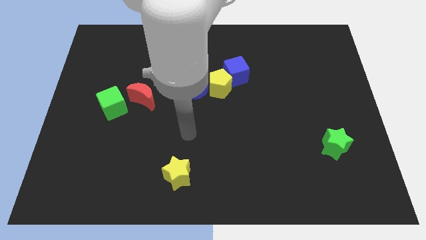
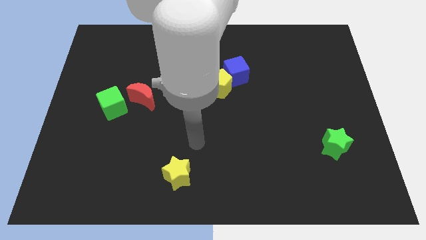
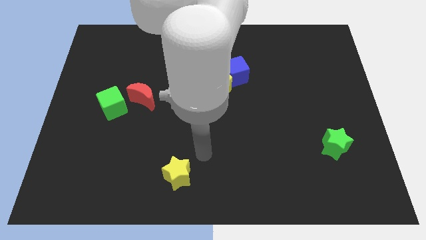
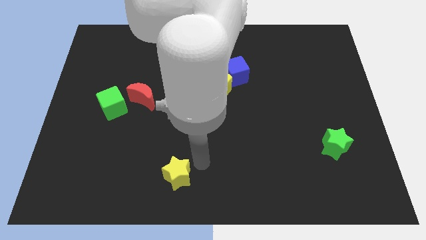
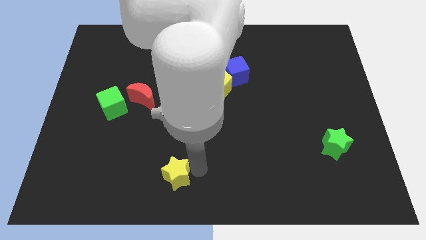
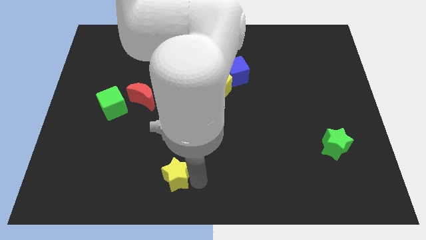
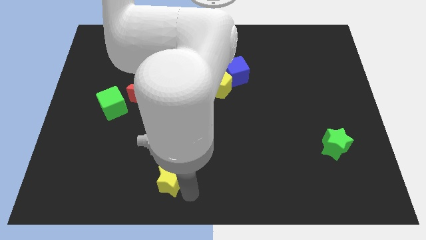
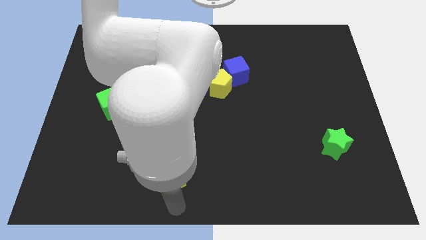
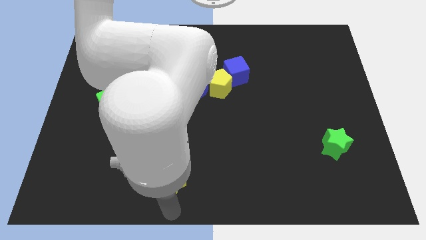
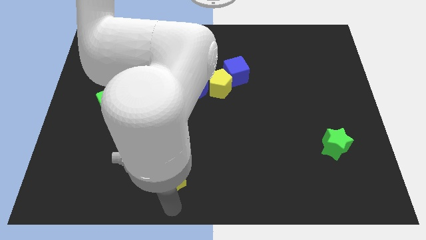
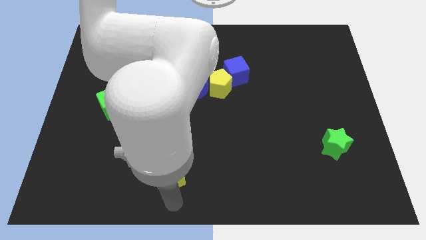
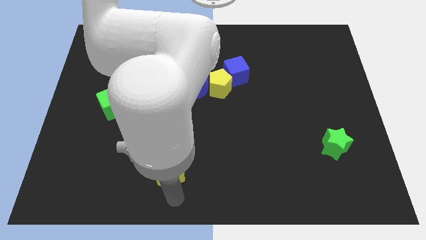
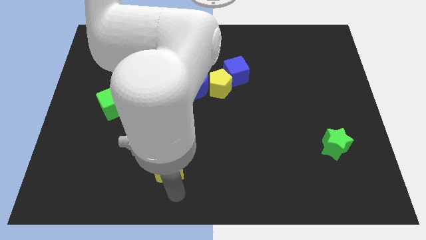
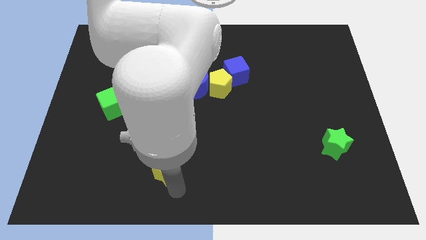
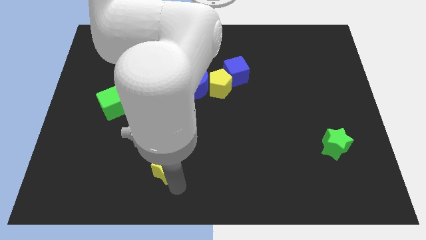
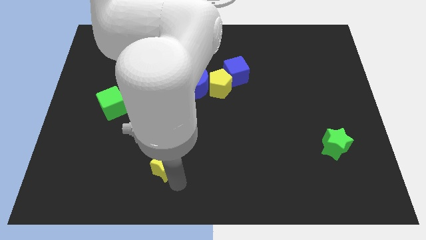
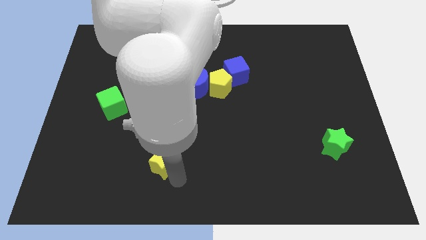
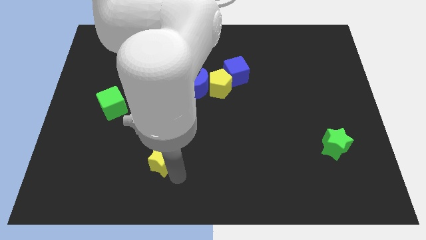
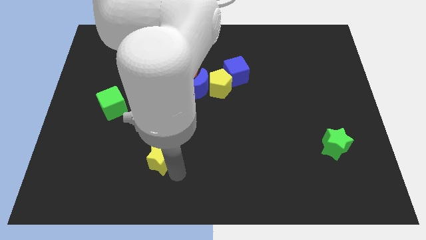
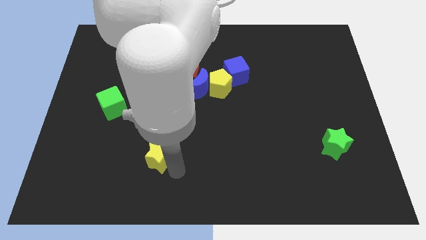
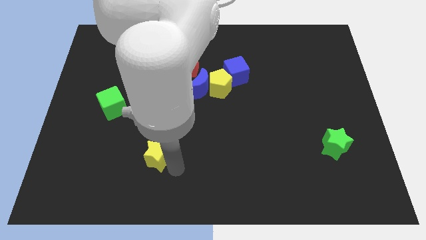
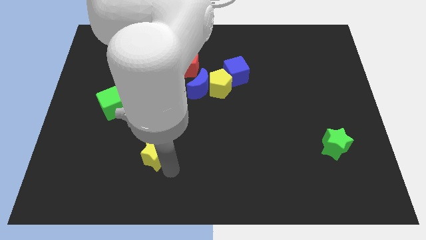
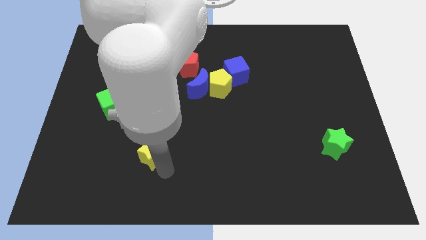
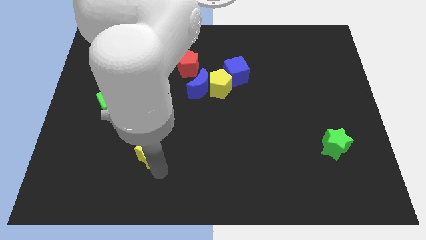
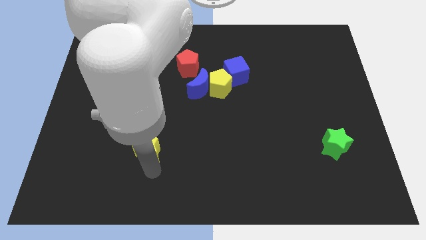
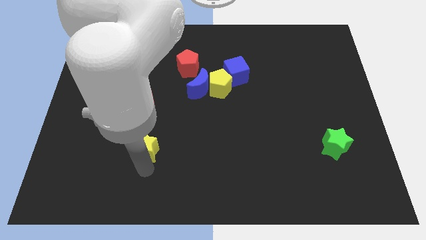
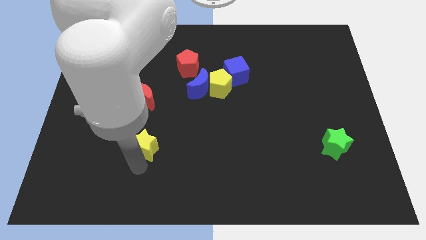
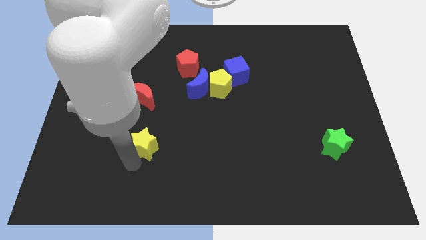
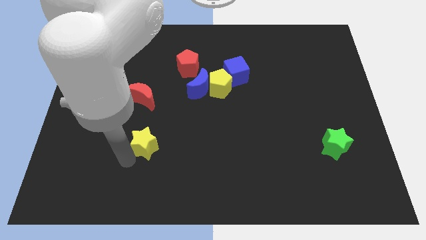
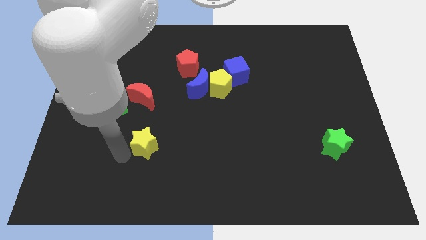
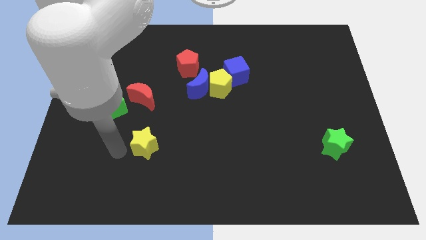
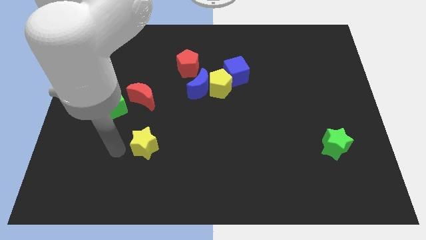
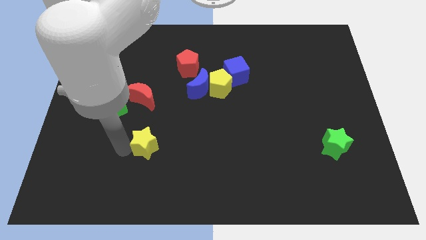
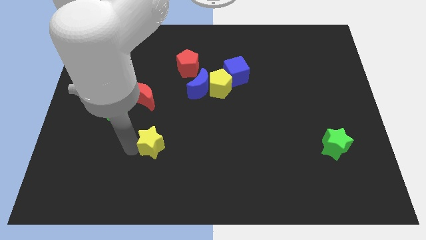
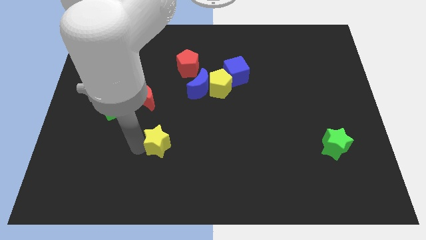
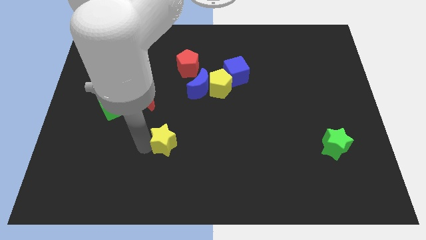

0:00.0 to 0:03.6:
slide the yellow star somewhat up

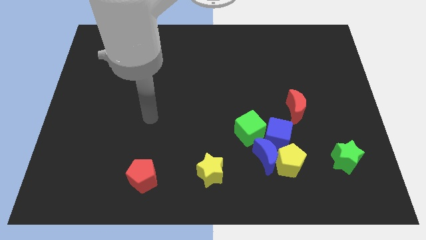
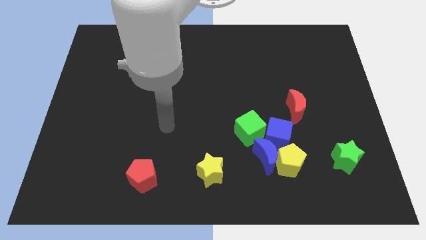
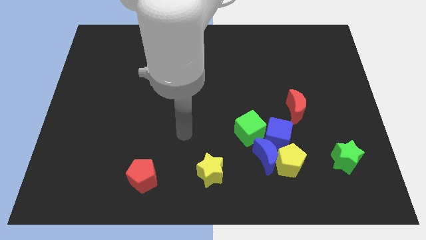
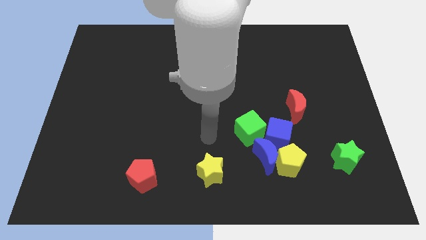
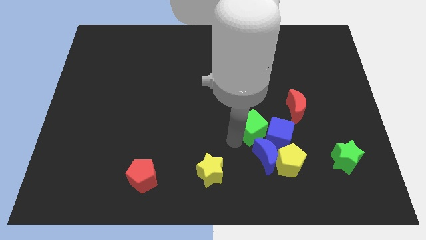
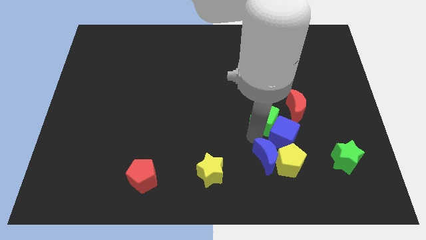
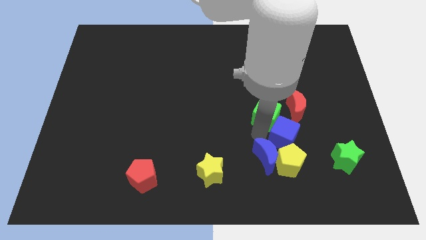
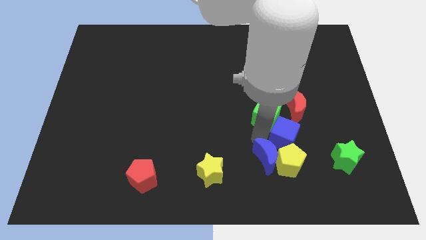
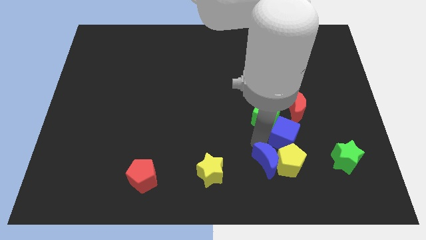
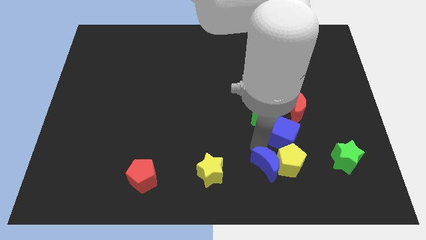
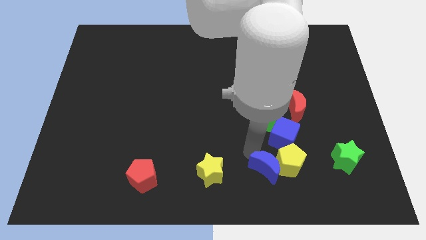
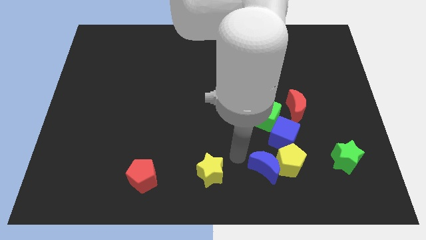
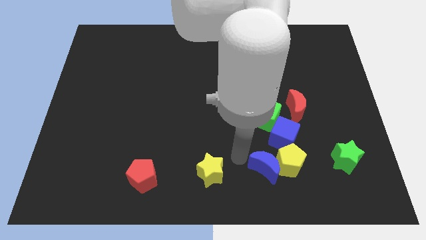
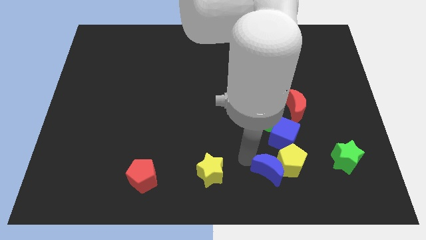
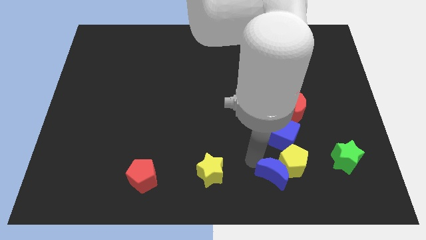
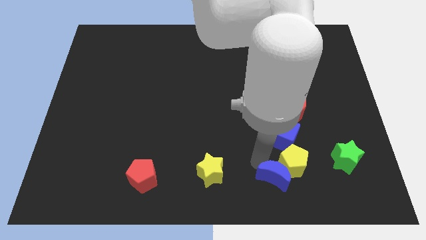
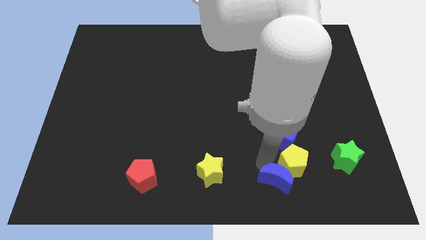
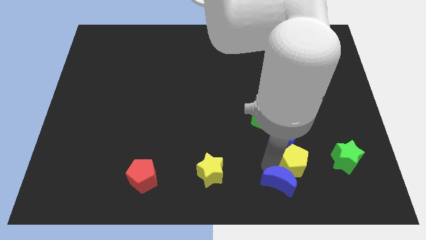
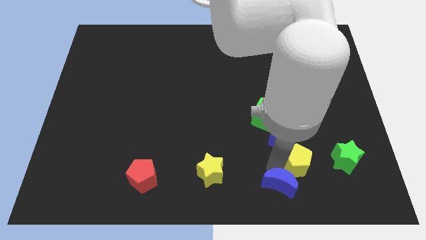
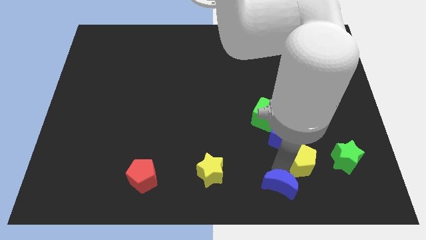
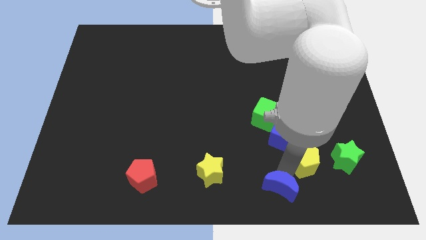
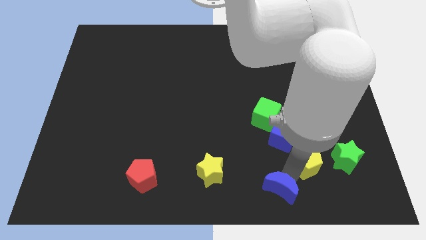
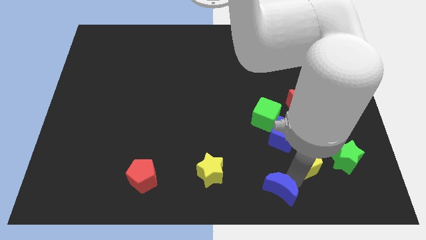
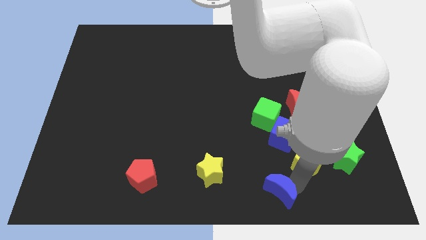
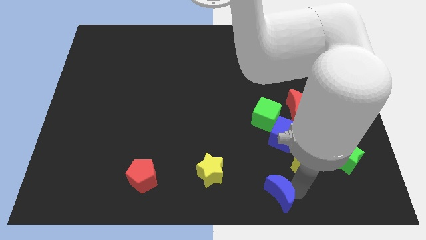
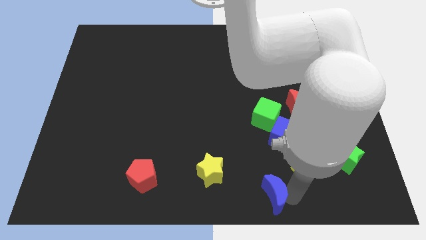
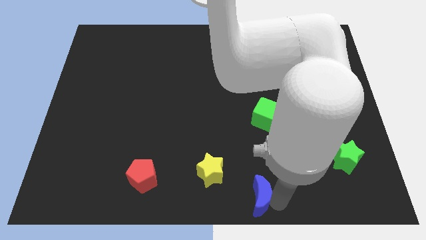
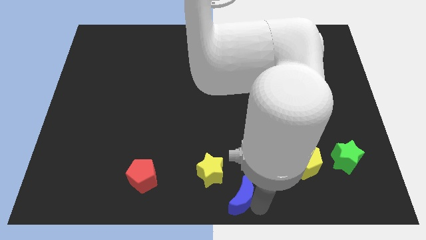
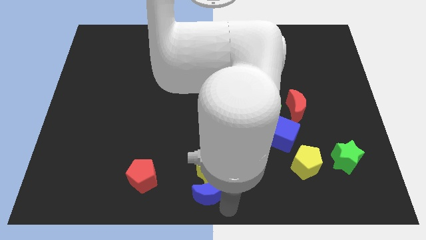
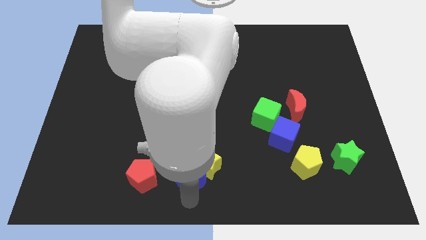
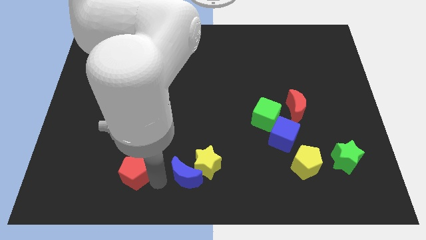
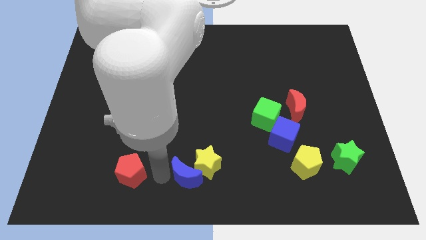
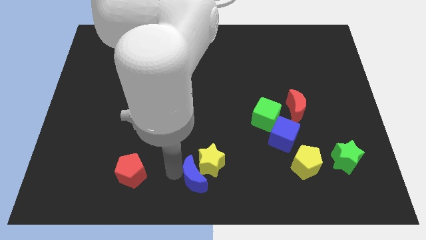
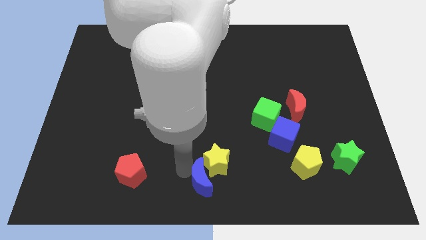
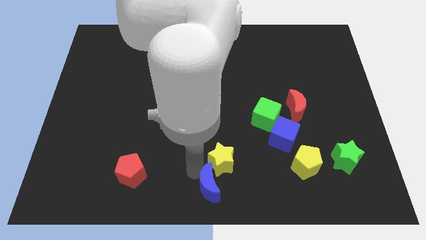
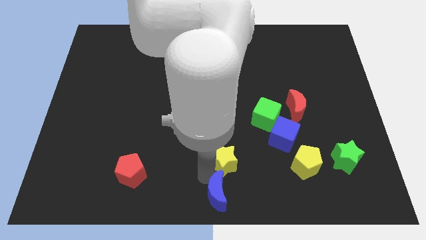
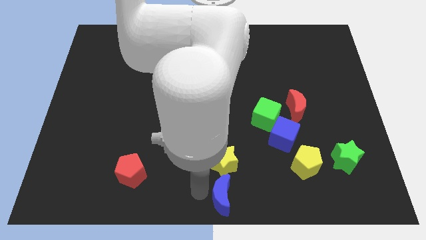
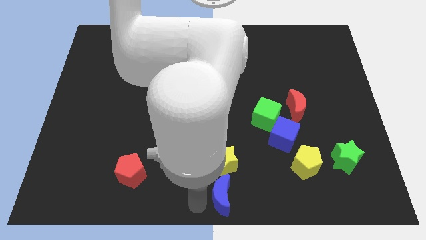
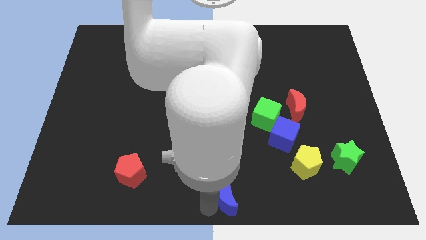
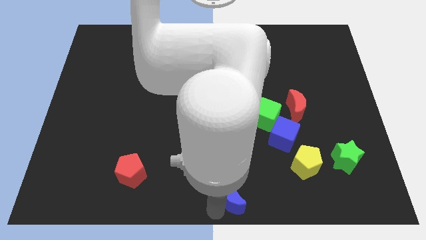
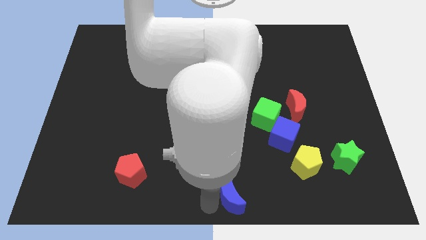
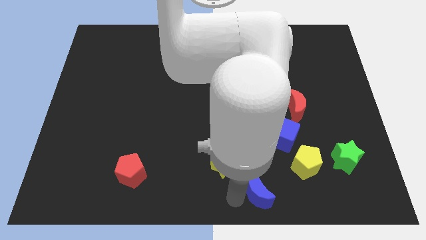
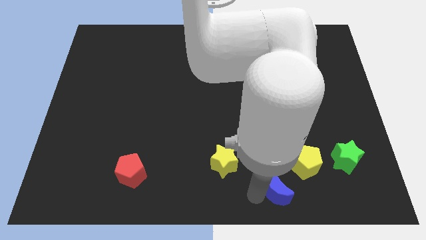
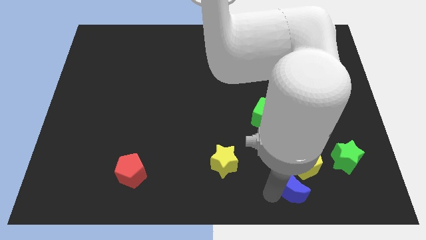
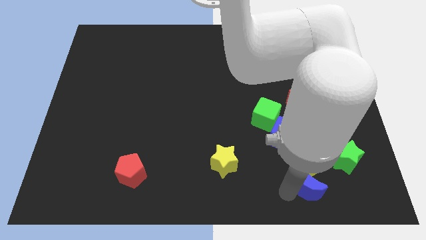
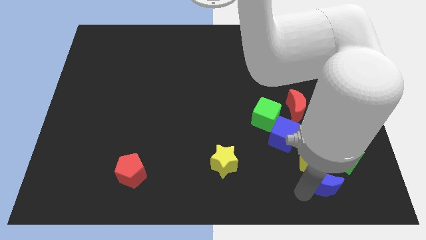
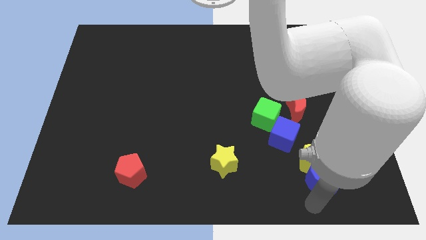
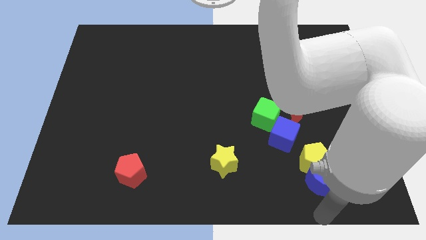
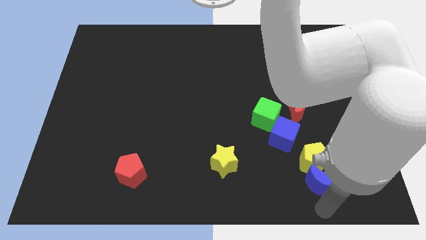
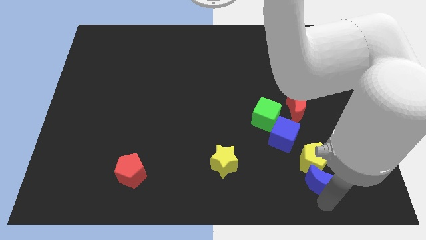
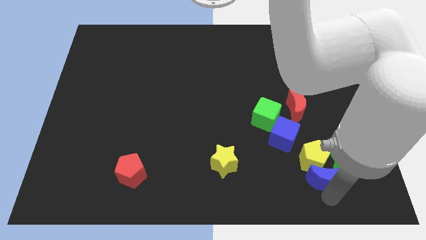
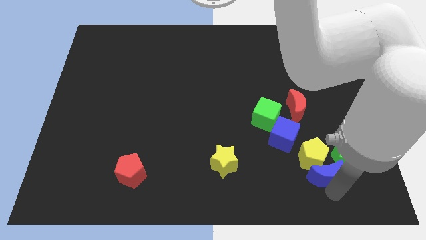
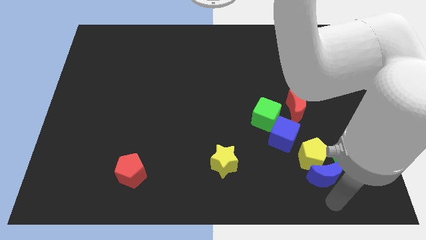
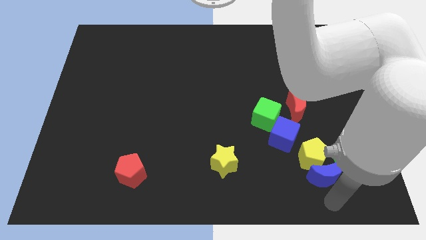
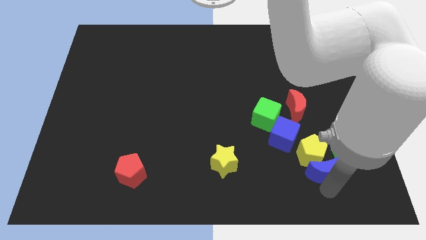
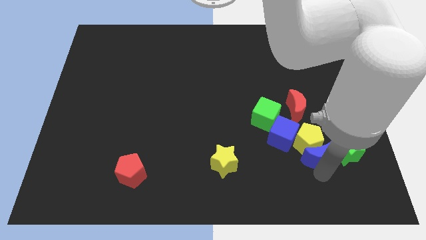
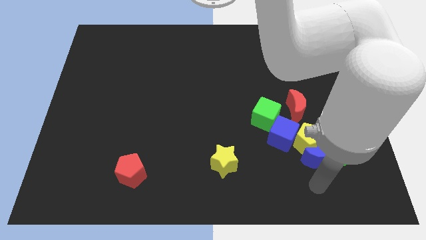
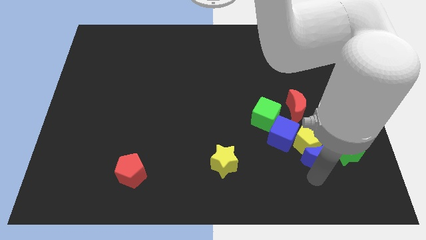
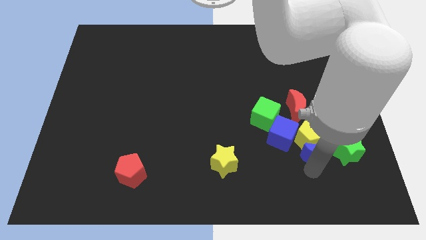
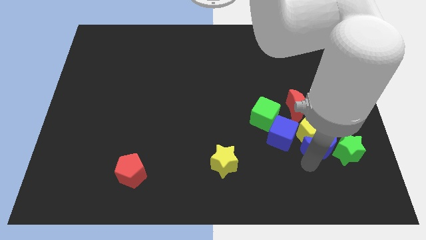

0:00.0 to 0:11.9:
slightly move the blue moon up and then to the right
